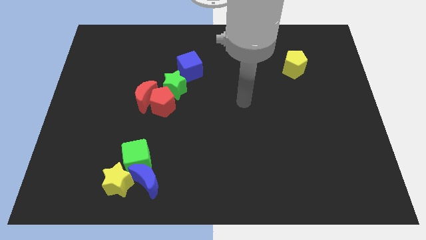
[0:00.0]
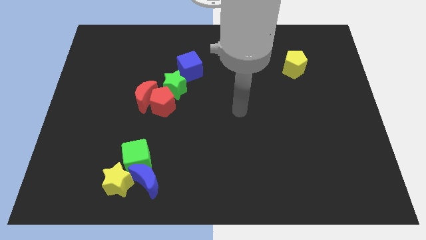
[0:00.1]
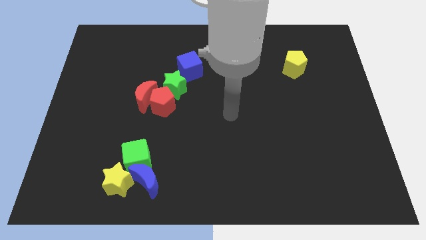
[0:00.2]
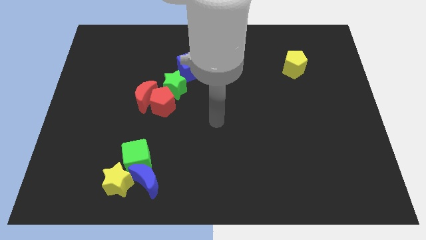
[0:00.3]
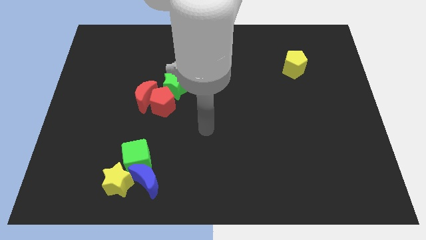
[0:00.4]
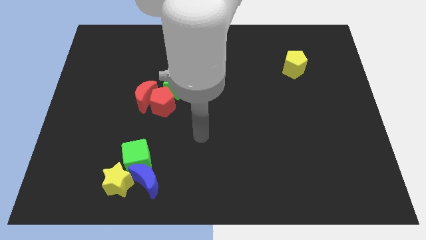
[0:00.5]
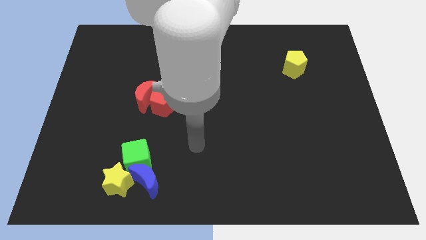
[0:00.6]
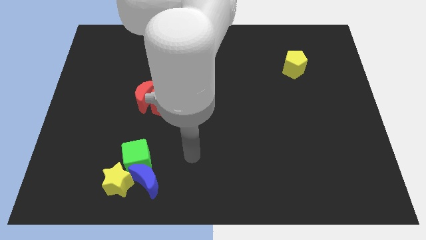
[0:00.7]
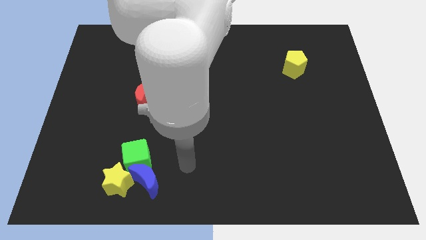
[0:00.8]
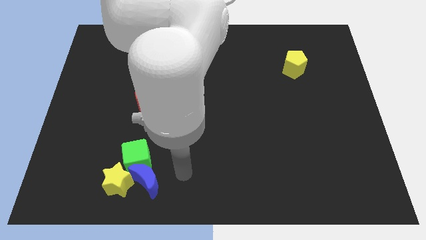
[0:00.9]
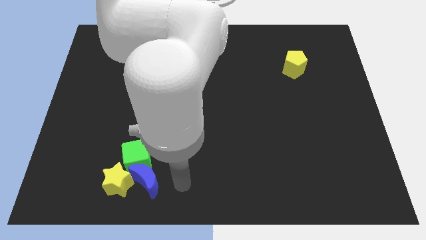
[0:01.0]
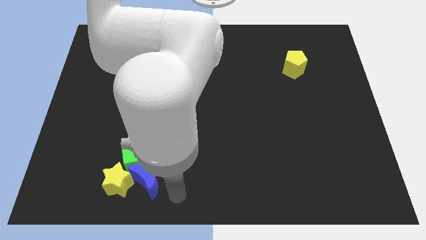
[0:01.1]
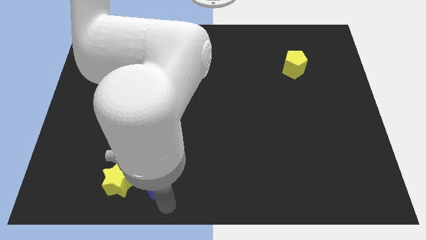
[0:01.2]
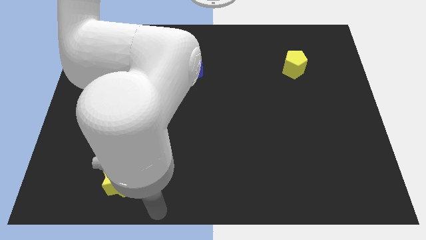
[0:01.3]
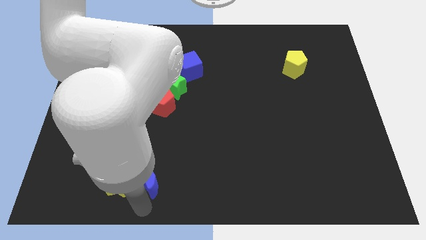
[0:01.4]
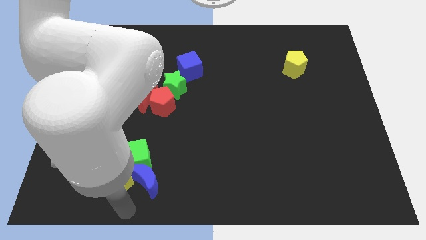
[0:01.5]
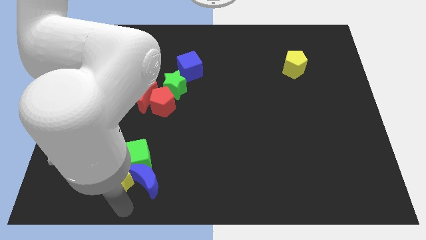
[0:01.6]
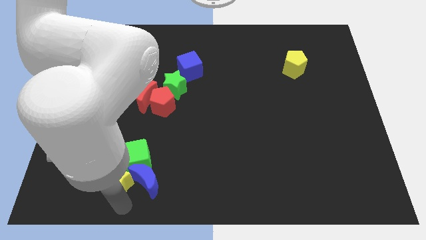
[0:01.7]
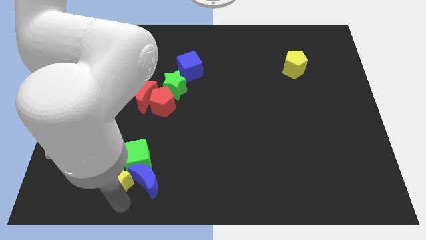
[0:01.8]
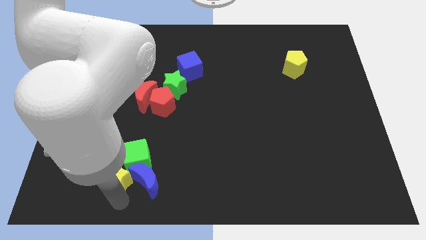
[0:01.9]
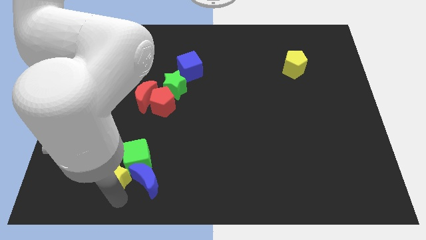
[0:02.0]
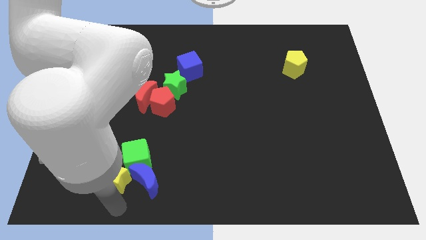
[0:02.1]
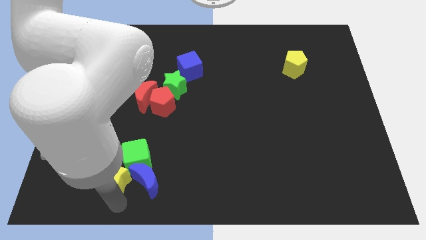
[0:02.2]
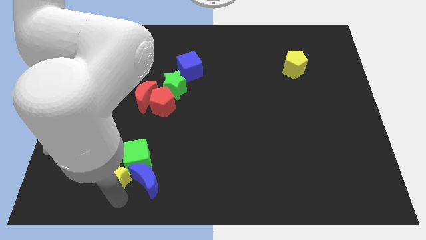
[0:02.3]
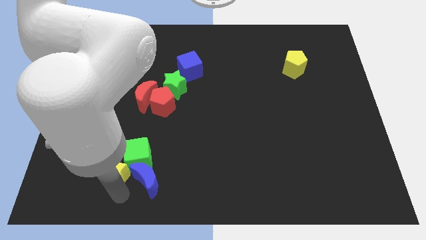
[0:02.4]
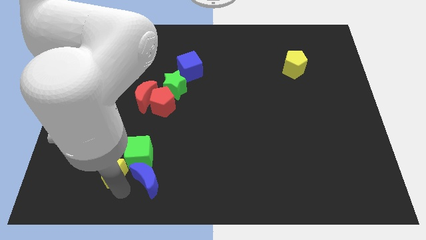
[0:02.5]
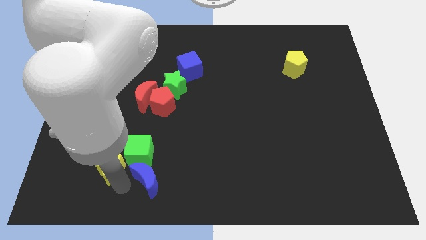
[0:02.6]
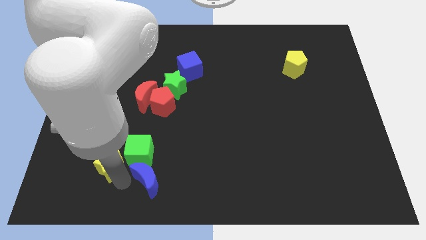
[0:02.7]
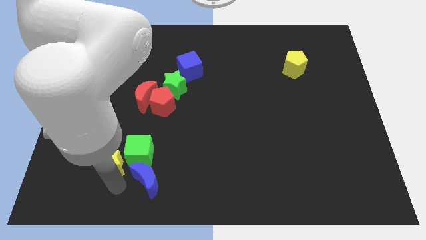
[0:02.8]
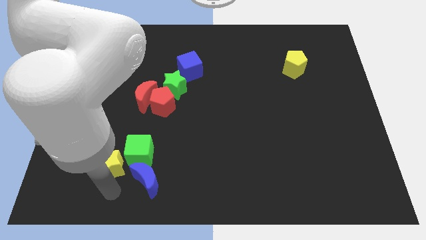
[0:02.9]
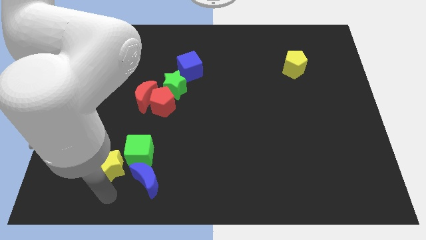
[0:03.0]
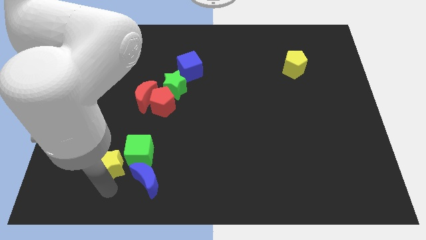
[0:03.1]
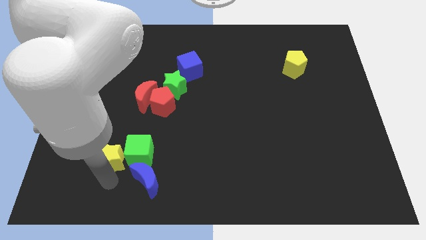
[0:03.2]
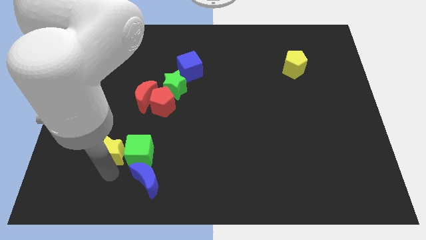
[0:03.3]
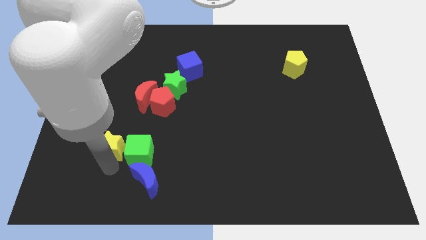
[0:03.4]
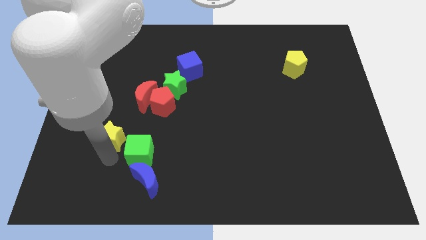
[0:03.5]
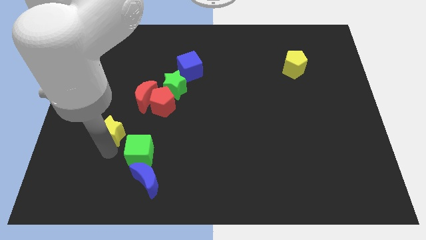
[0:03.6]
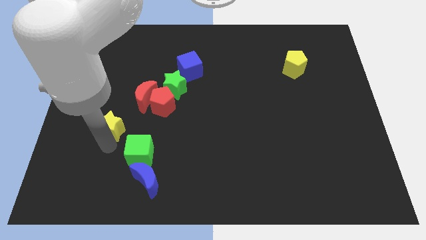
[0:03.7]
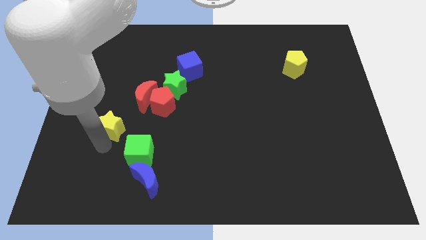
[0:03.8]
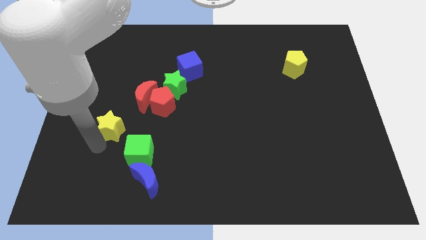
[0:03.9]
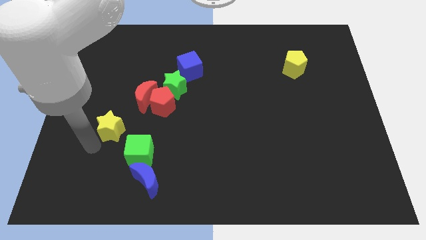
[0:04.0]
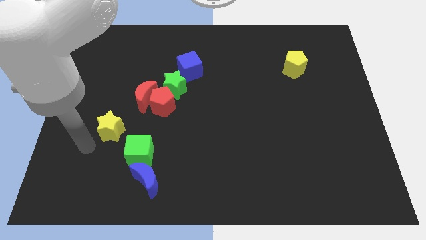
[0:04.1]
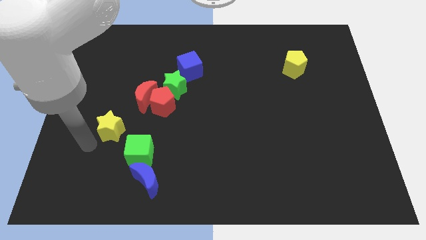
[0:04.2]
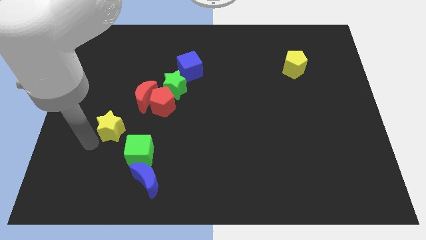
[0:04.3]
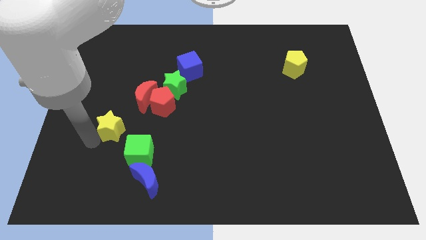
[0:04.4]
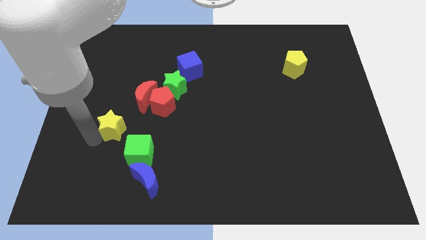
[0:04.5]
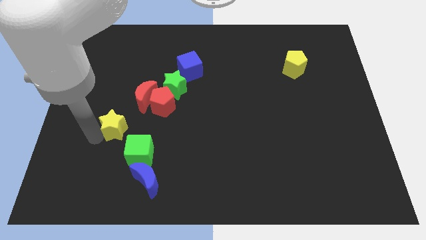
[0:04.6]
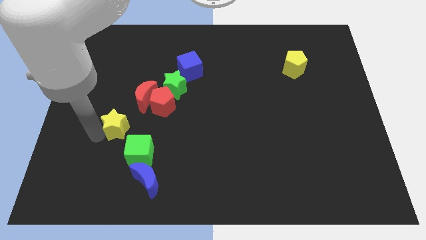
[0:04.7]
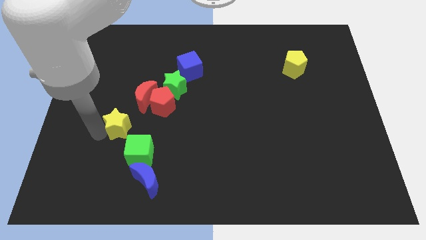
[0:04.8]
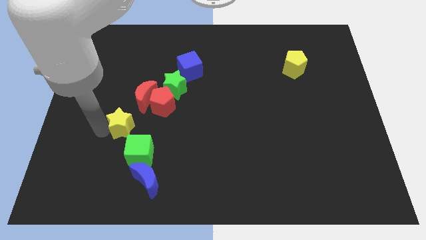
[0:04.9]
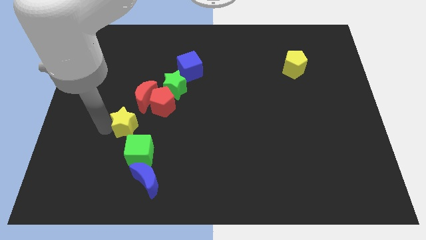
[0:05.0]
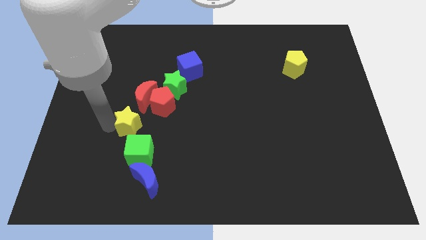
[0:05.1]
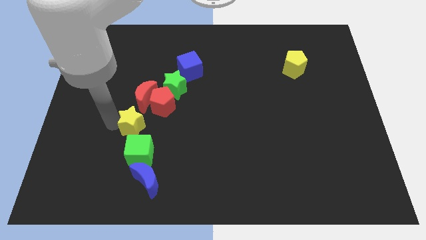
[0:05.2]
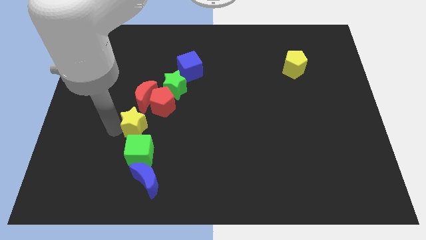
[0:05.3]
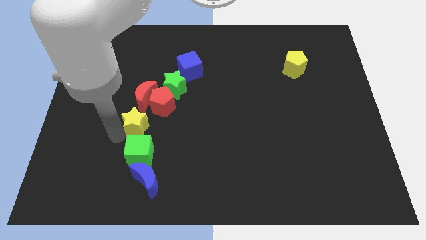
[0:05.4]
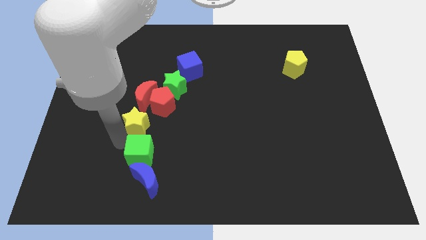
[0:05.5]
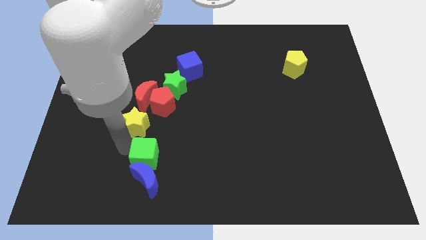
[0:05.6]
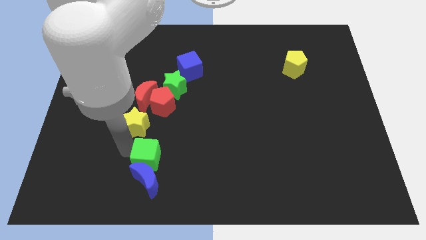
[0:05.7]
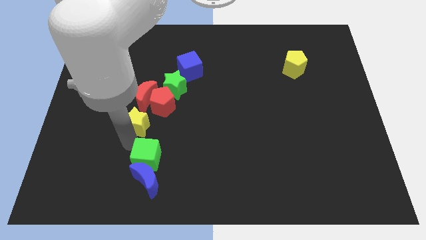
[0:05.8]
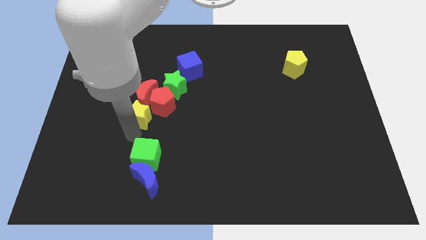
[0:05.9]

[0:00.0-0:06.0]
slide the yellow star to the red moon

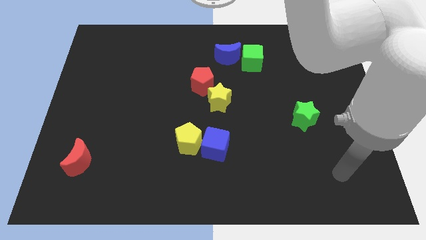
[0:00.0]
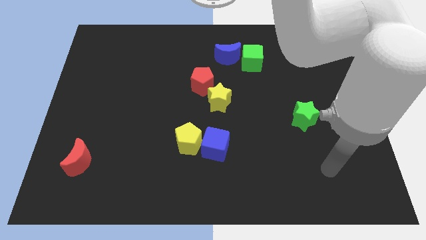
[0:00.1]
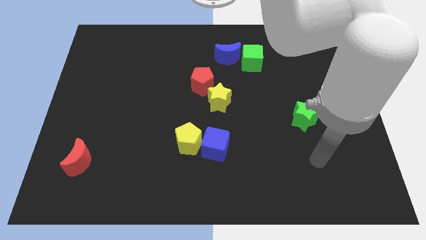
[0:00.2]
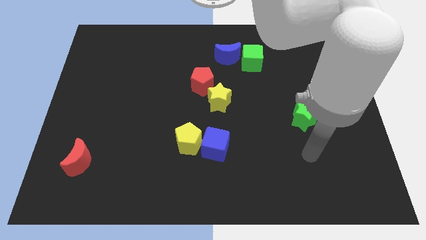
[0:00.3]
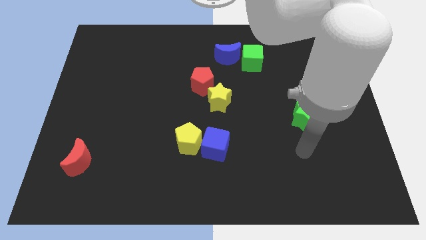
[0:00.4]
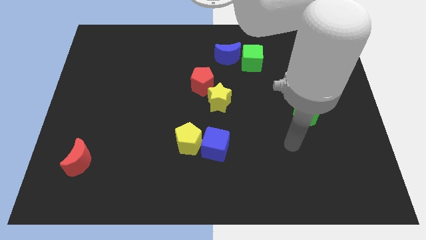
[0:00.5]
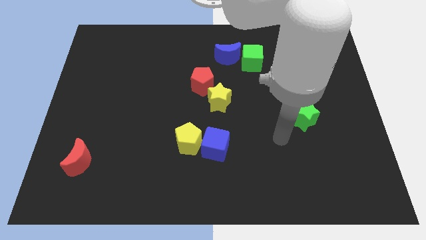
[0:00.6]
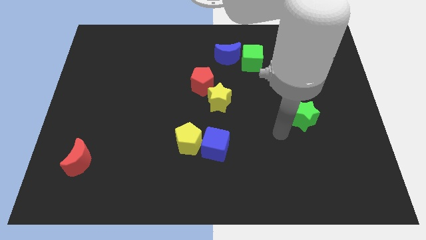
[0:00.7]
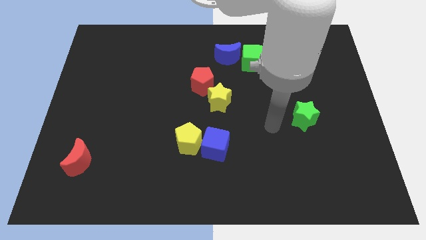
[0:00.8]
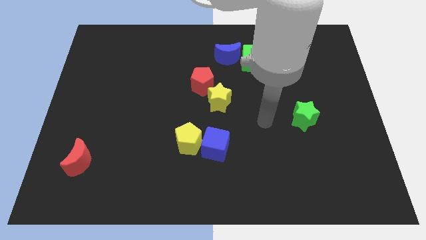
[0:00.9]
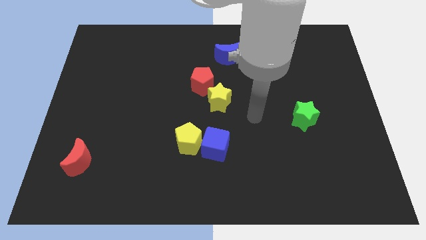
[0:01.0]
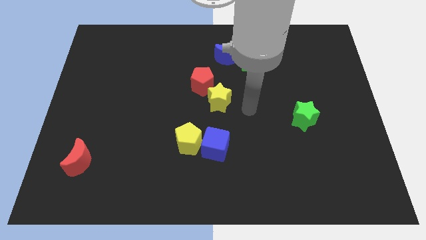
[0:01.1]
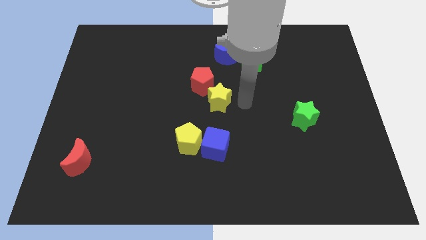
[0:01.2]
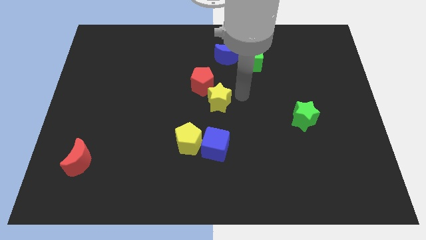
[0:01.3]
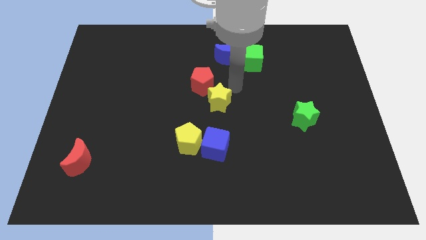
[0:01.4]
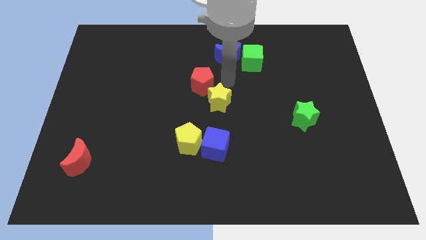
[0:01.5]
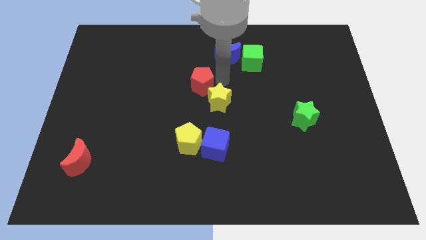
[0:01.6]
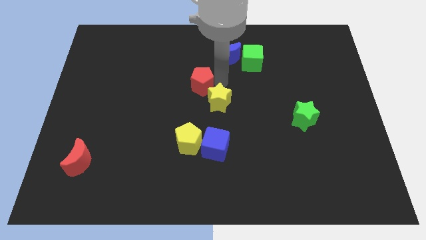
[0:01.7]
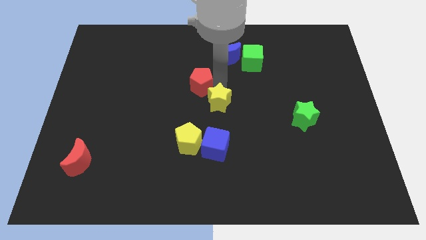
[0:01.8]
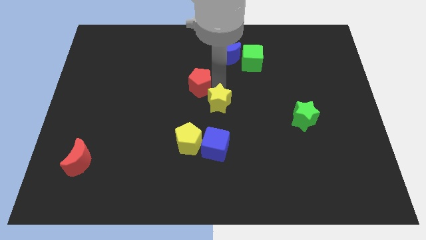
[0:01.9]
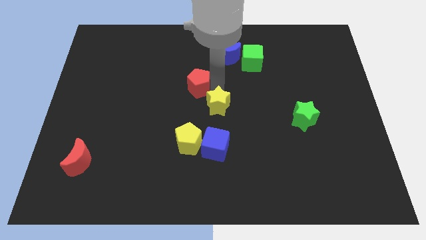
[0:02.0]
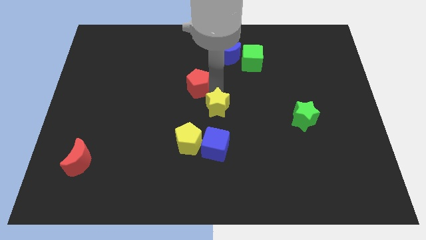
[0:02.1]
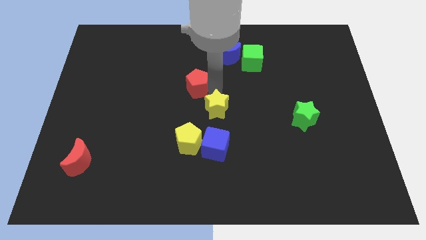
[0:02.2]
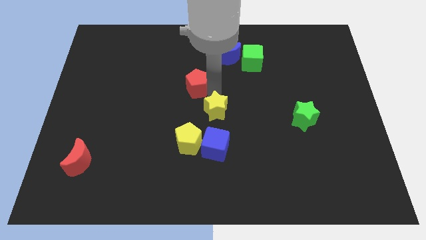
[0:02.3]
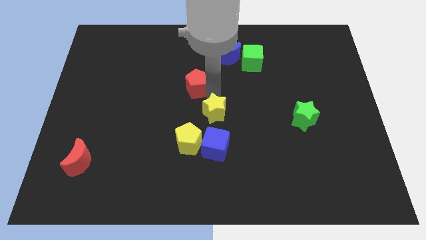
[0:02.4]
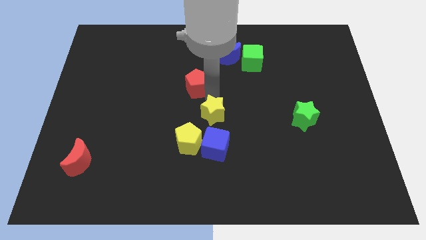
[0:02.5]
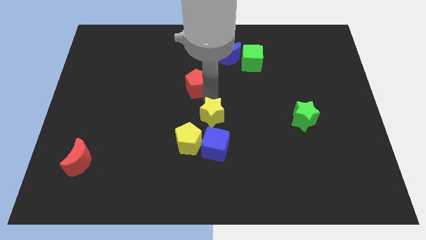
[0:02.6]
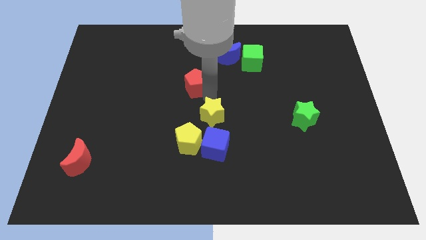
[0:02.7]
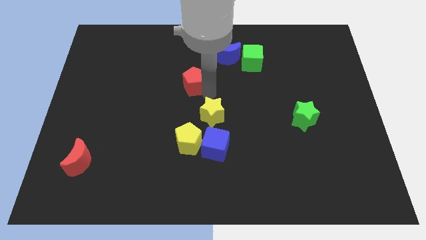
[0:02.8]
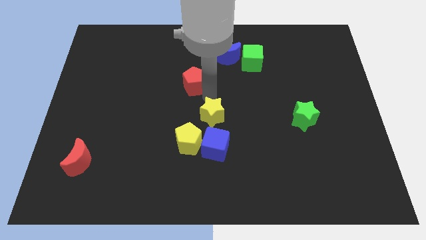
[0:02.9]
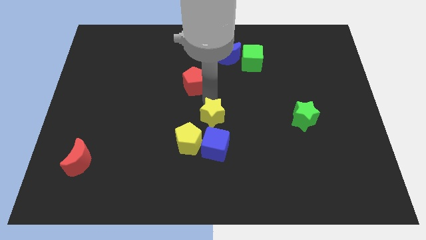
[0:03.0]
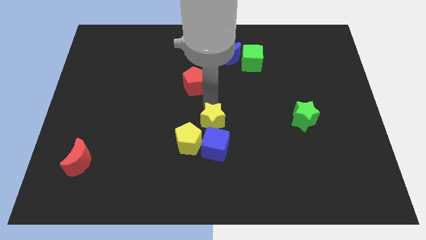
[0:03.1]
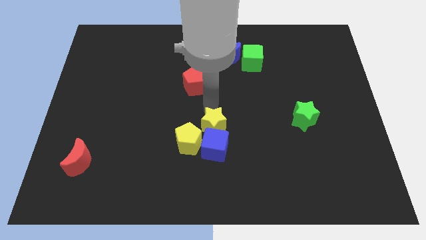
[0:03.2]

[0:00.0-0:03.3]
put the yellow star close to the blue cube
